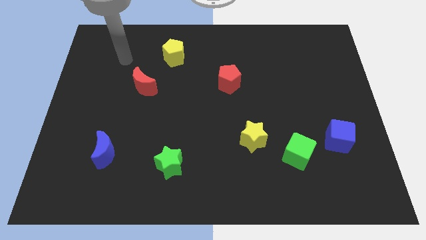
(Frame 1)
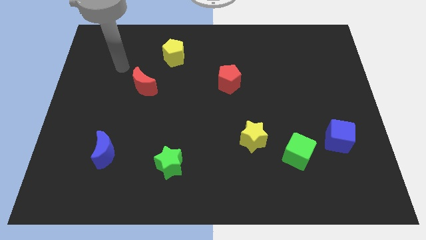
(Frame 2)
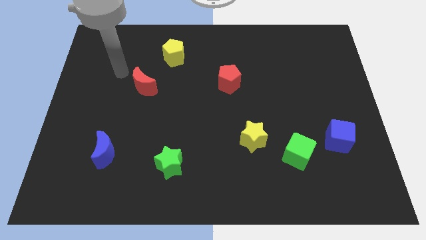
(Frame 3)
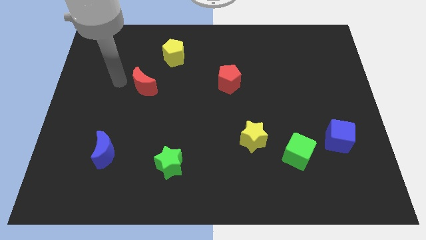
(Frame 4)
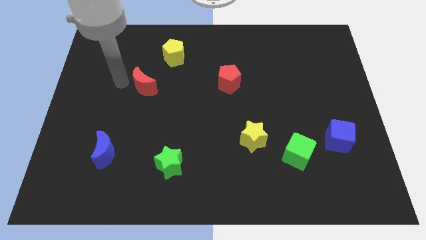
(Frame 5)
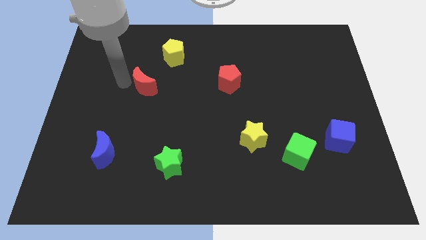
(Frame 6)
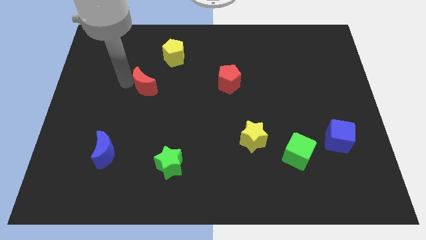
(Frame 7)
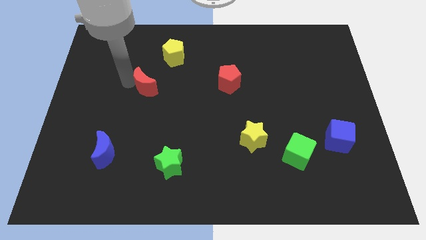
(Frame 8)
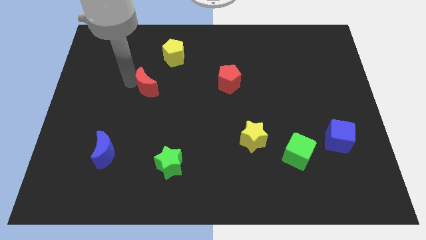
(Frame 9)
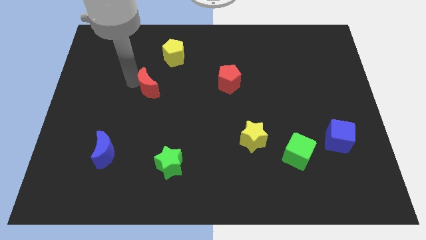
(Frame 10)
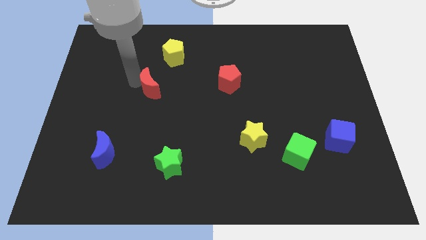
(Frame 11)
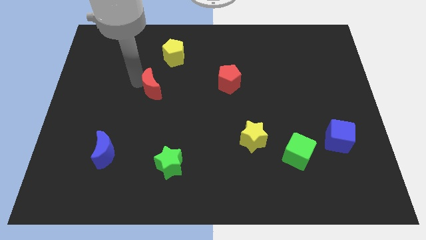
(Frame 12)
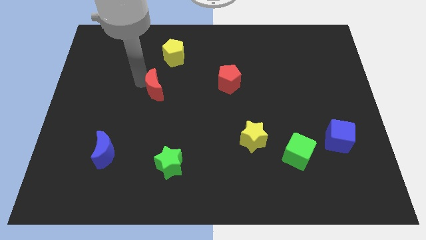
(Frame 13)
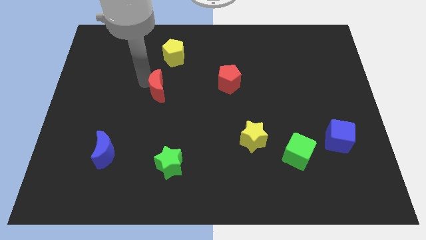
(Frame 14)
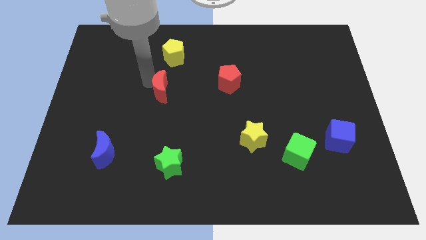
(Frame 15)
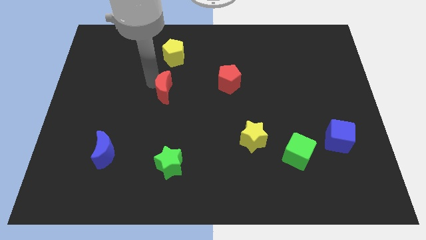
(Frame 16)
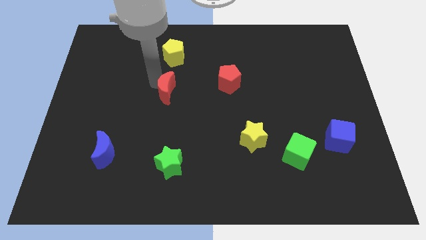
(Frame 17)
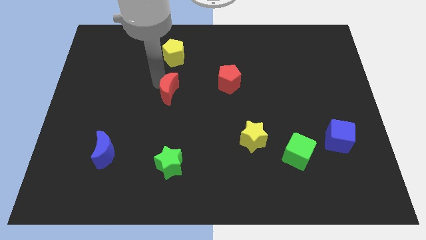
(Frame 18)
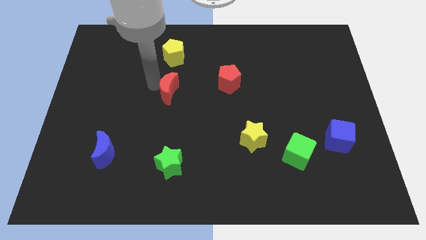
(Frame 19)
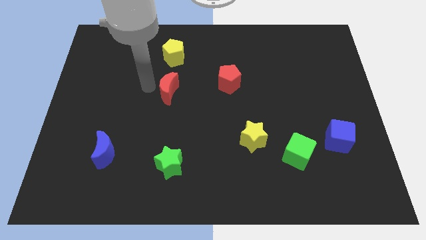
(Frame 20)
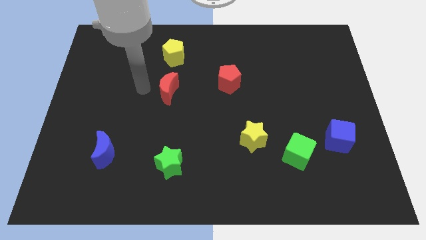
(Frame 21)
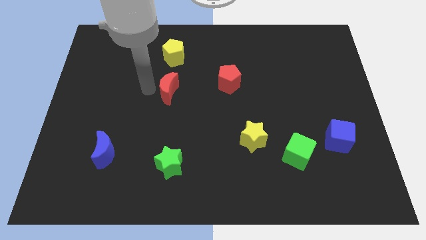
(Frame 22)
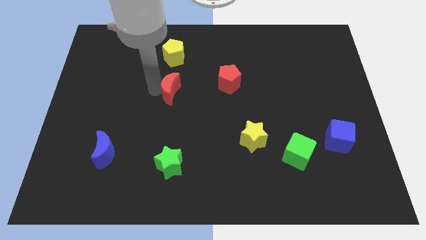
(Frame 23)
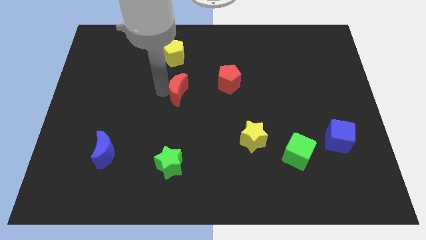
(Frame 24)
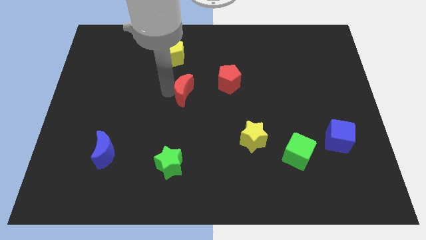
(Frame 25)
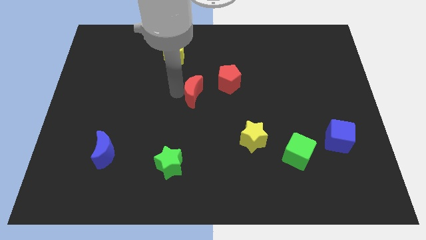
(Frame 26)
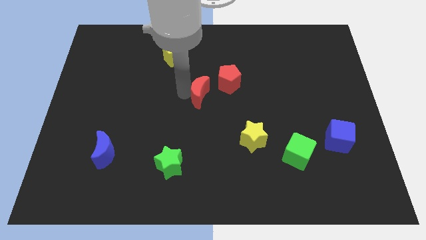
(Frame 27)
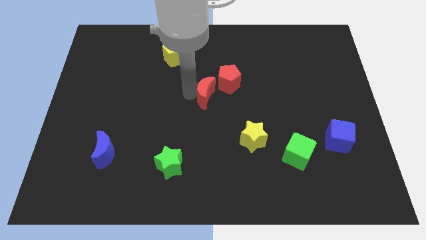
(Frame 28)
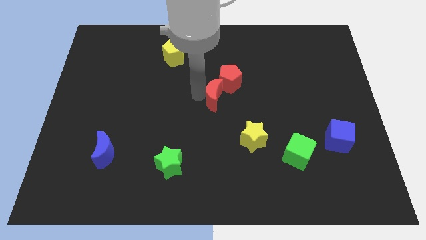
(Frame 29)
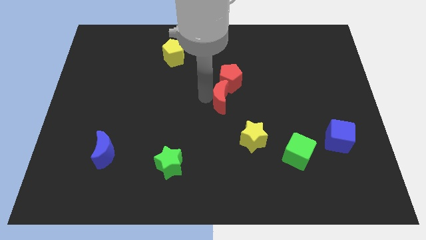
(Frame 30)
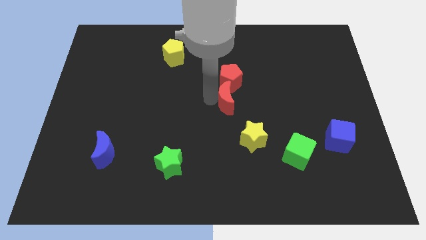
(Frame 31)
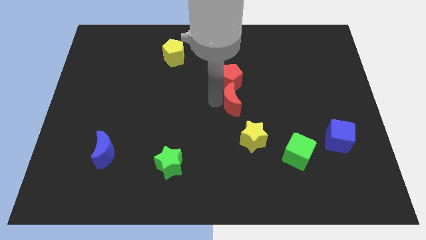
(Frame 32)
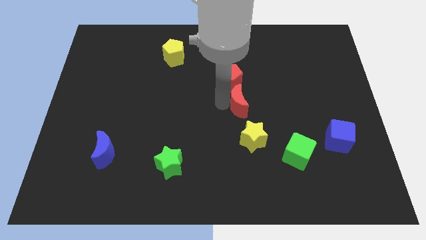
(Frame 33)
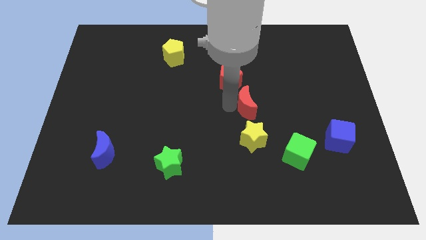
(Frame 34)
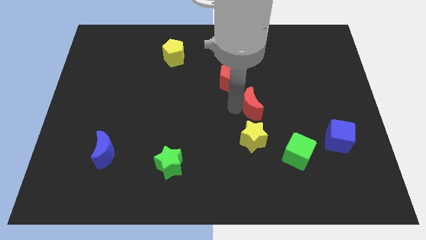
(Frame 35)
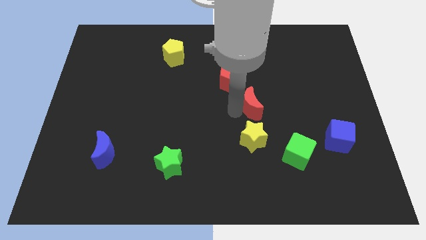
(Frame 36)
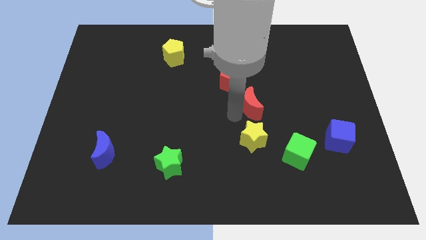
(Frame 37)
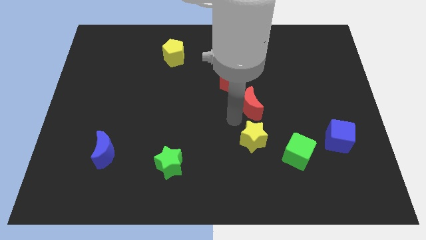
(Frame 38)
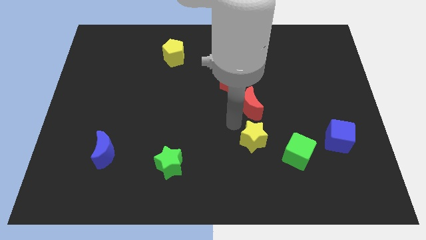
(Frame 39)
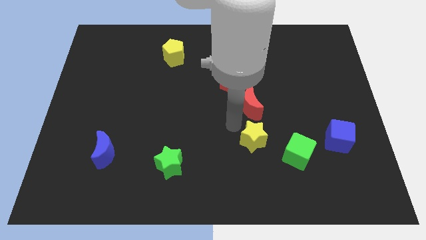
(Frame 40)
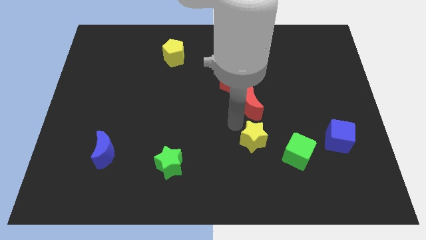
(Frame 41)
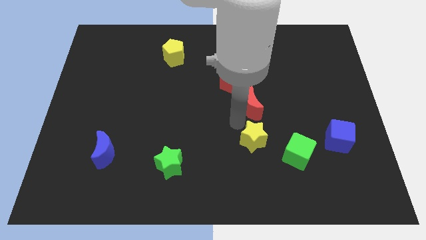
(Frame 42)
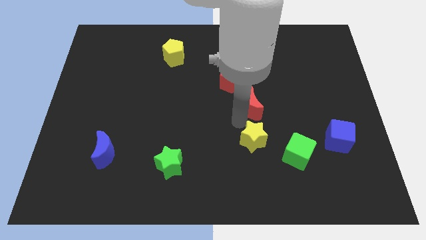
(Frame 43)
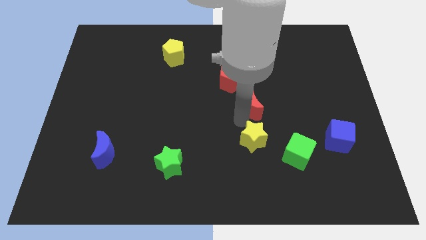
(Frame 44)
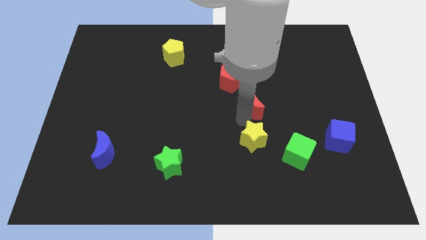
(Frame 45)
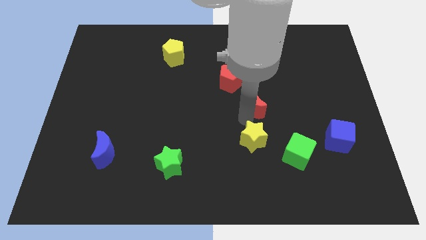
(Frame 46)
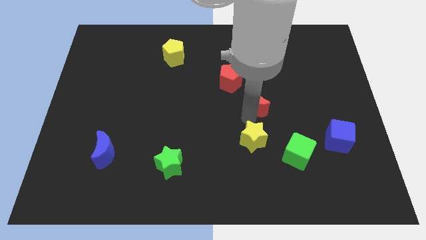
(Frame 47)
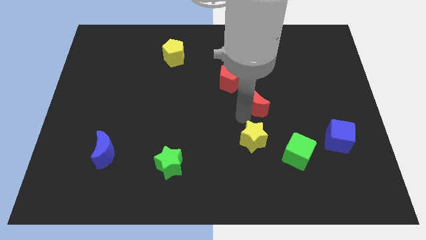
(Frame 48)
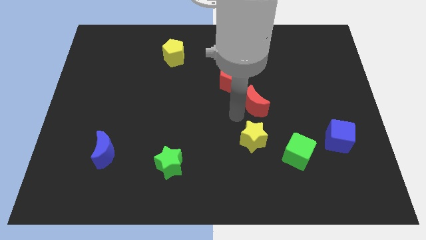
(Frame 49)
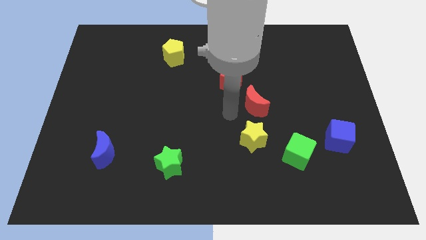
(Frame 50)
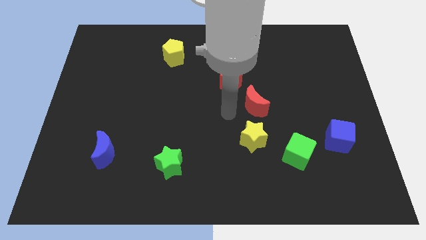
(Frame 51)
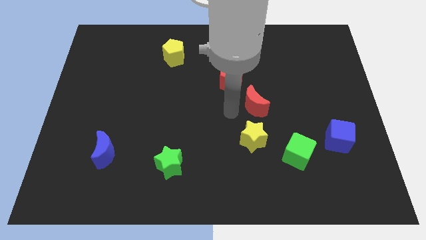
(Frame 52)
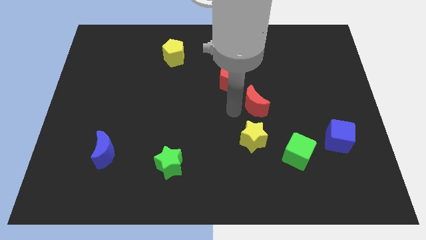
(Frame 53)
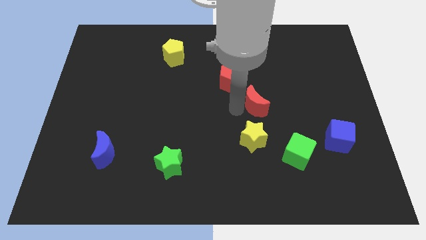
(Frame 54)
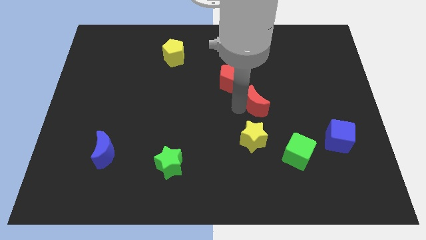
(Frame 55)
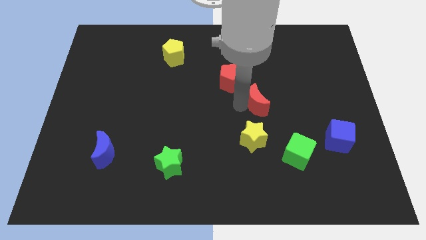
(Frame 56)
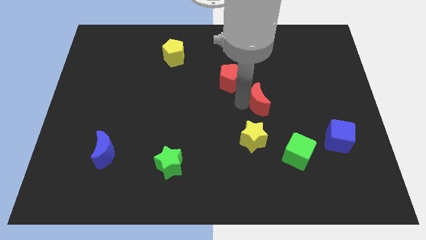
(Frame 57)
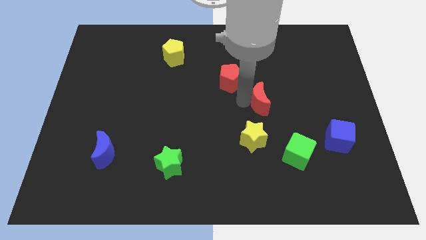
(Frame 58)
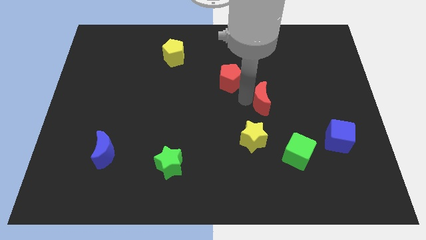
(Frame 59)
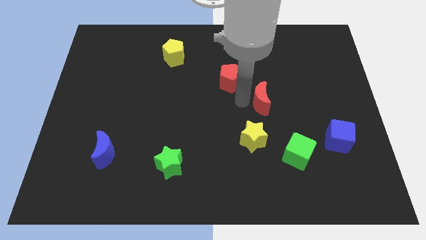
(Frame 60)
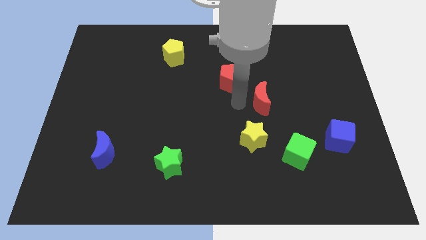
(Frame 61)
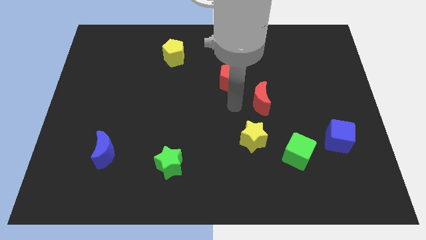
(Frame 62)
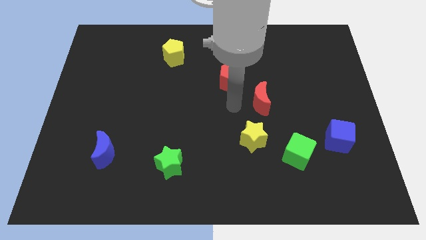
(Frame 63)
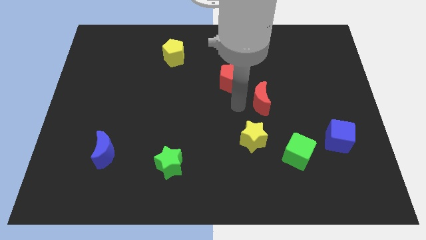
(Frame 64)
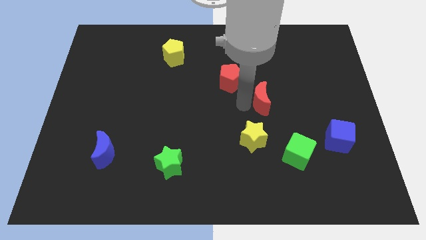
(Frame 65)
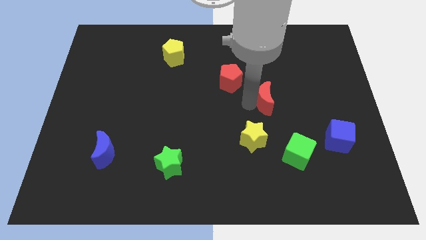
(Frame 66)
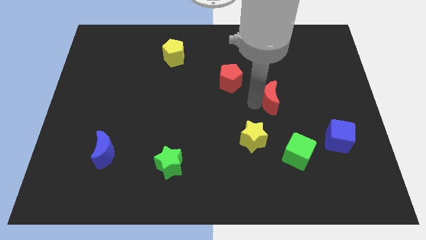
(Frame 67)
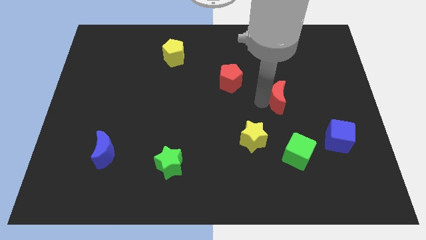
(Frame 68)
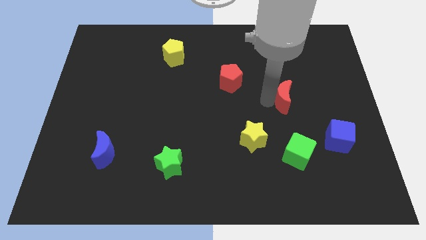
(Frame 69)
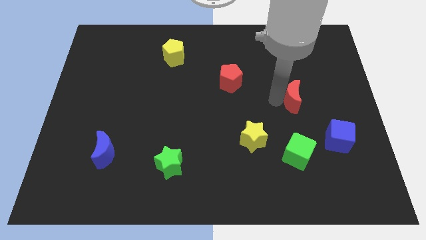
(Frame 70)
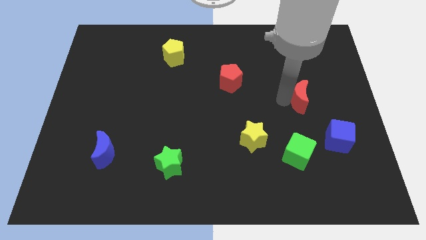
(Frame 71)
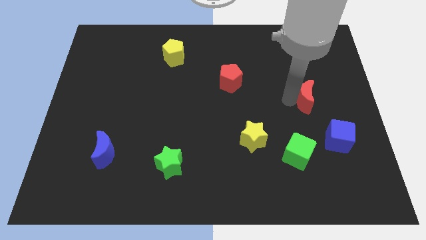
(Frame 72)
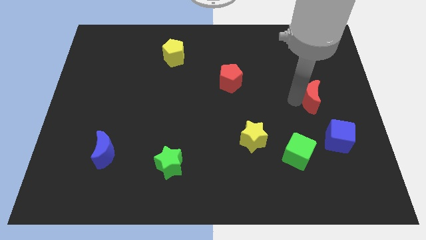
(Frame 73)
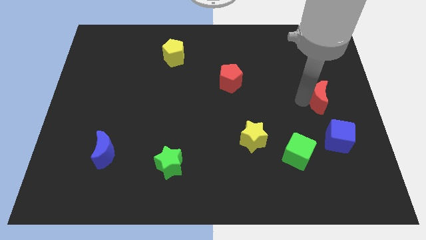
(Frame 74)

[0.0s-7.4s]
push the red moon to the center right
